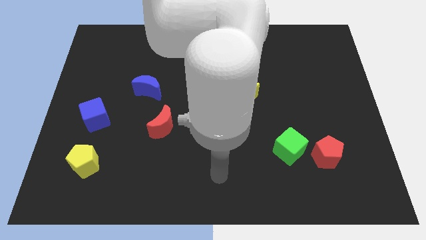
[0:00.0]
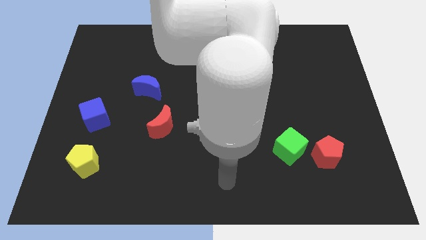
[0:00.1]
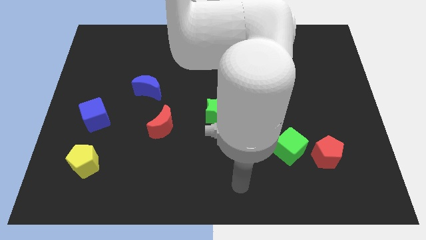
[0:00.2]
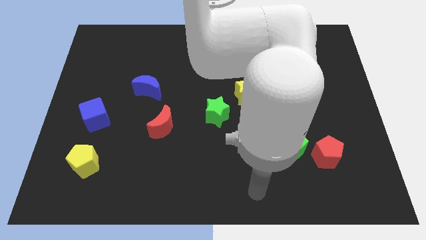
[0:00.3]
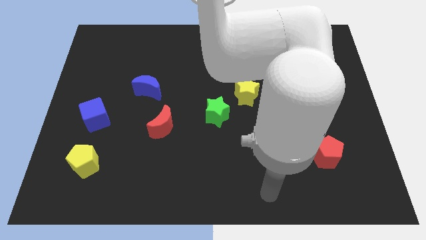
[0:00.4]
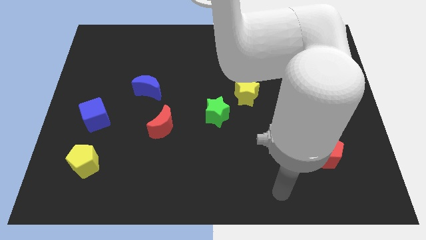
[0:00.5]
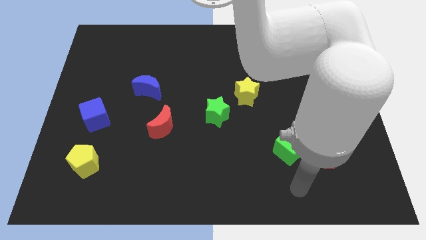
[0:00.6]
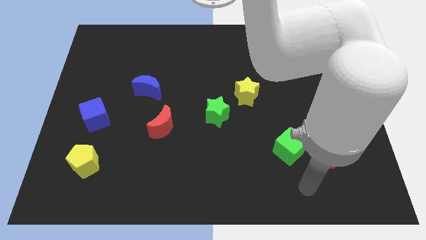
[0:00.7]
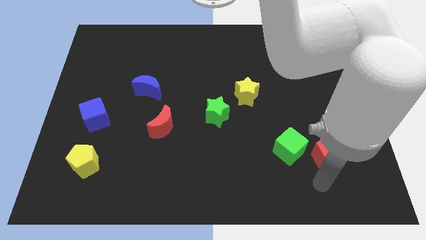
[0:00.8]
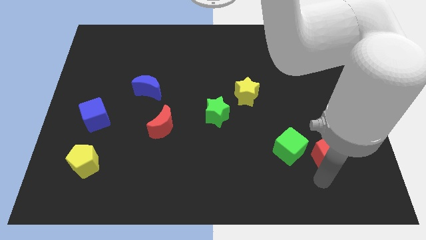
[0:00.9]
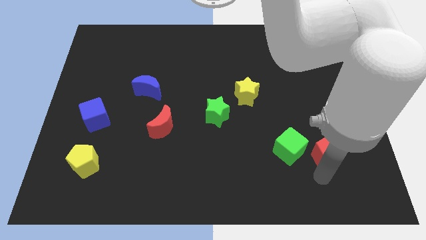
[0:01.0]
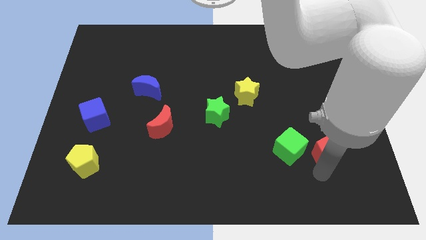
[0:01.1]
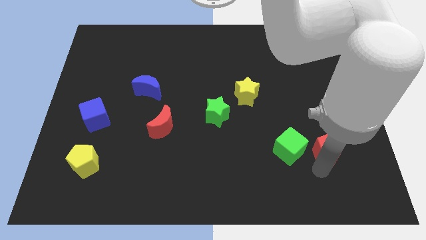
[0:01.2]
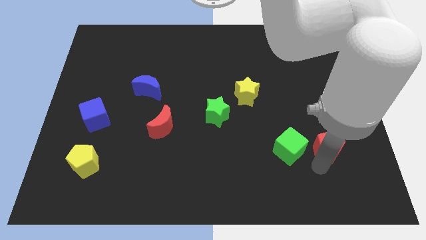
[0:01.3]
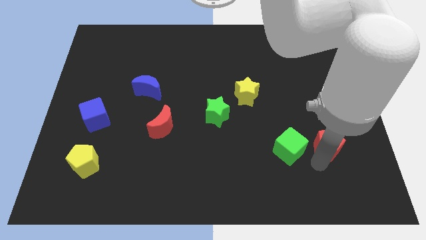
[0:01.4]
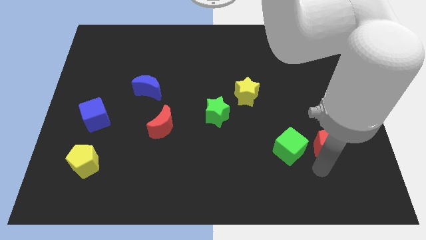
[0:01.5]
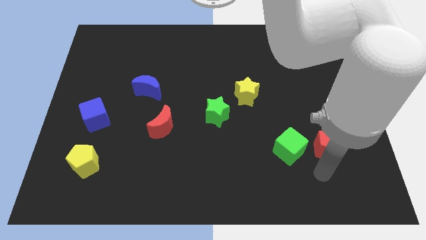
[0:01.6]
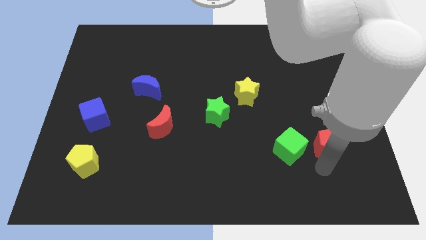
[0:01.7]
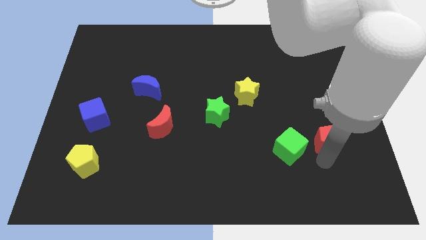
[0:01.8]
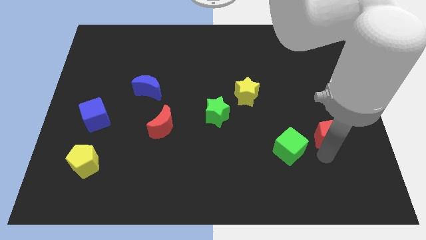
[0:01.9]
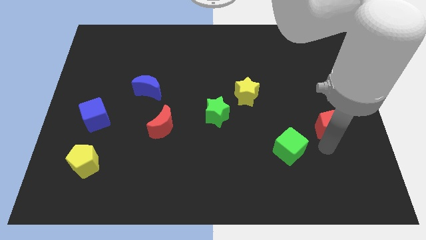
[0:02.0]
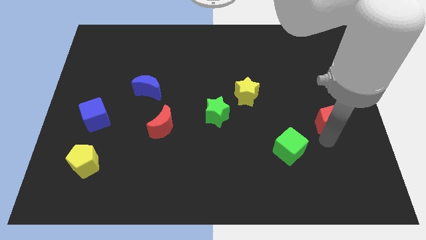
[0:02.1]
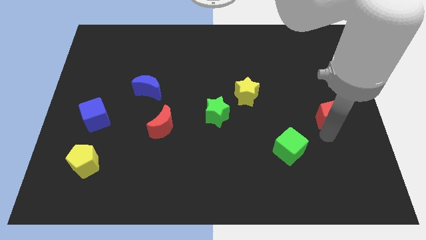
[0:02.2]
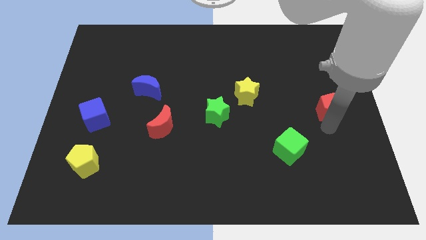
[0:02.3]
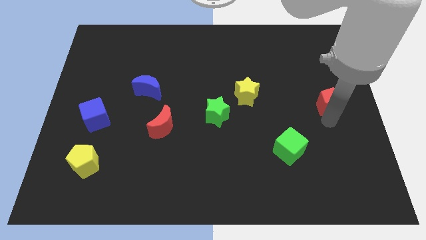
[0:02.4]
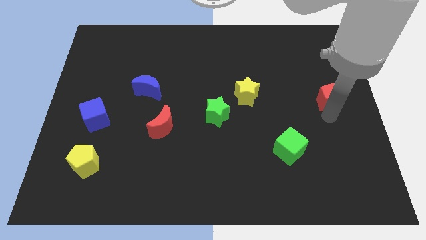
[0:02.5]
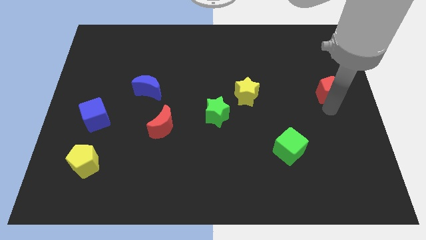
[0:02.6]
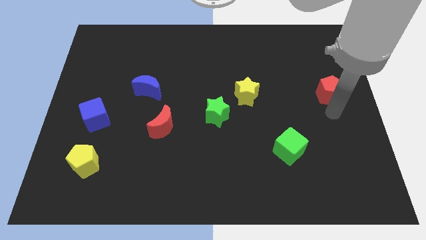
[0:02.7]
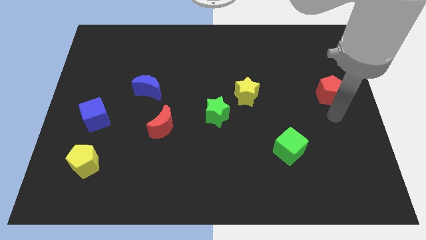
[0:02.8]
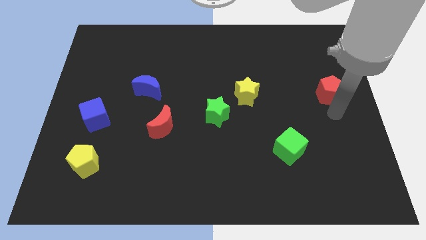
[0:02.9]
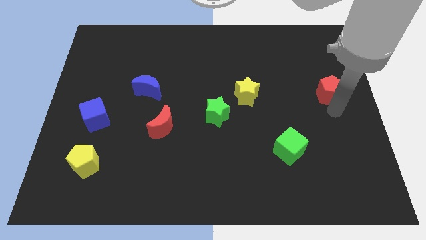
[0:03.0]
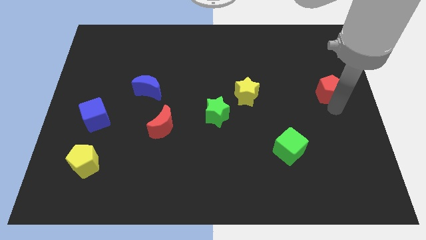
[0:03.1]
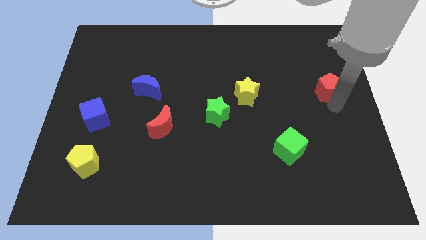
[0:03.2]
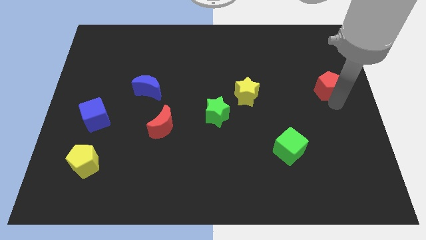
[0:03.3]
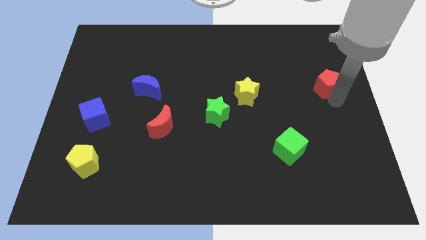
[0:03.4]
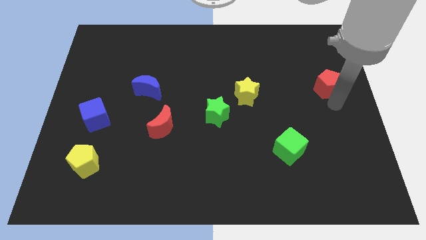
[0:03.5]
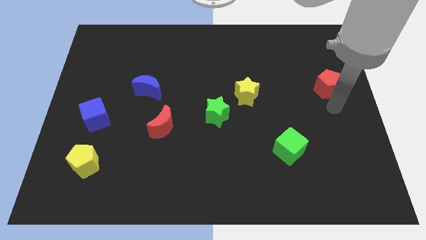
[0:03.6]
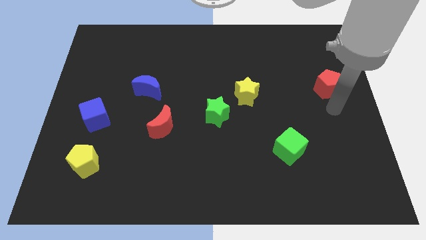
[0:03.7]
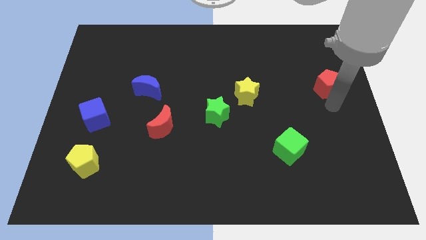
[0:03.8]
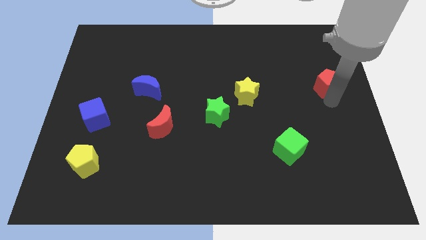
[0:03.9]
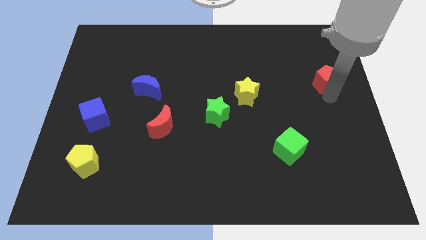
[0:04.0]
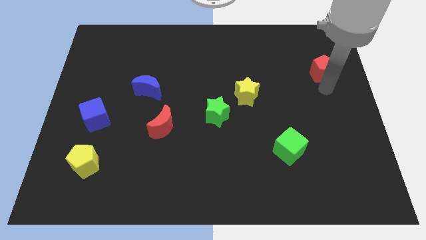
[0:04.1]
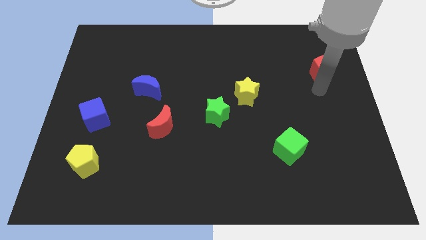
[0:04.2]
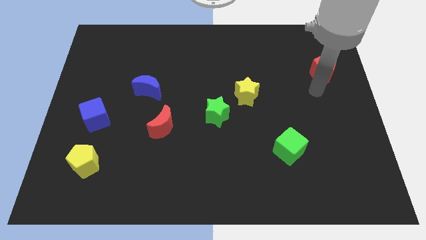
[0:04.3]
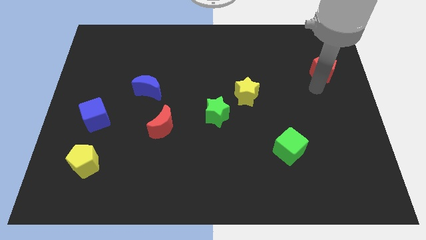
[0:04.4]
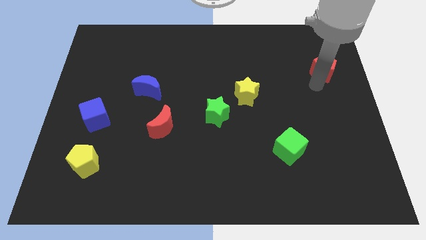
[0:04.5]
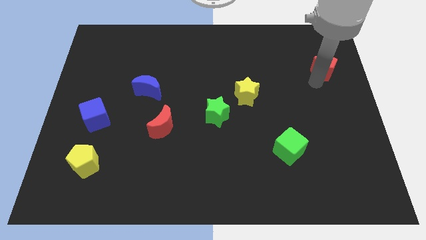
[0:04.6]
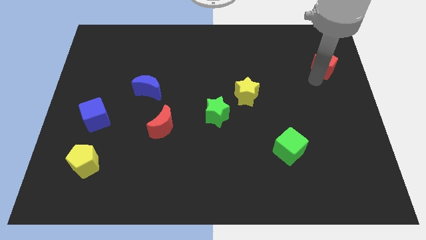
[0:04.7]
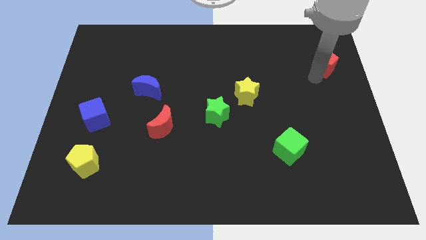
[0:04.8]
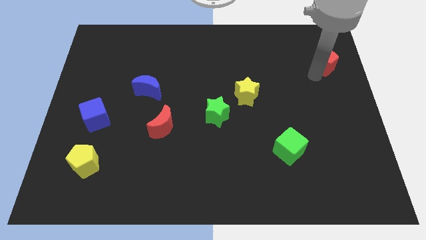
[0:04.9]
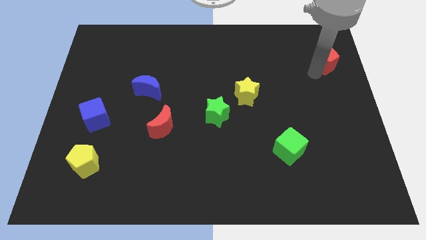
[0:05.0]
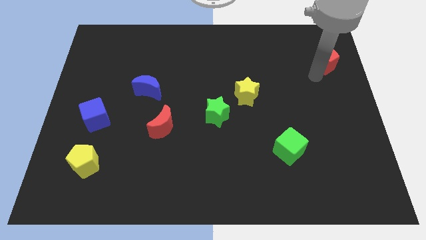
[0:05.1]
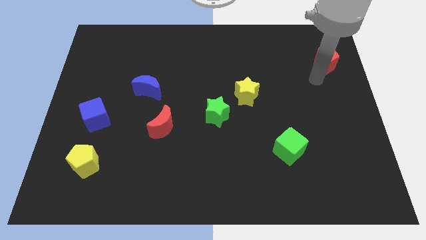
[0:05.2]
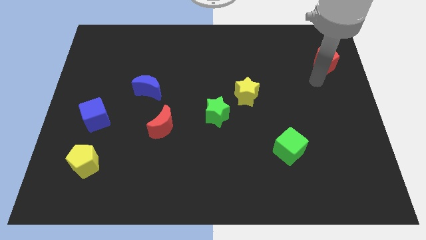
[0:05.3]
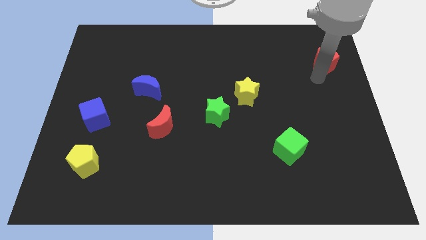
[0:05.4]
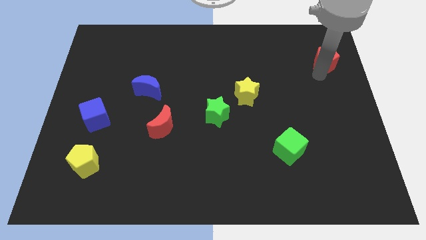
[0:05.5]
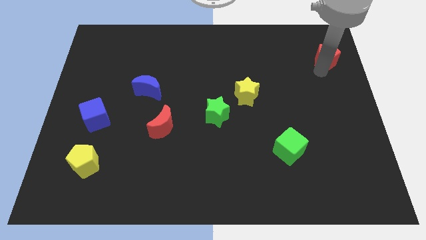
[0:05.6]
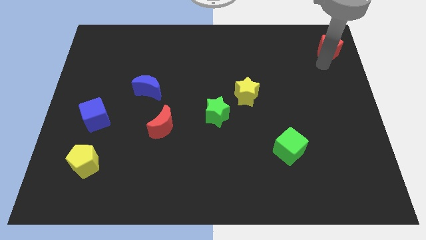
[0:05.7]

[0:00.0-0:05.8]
push the red pentagon to the top right
